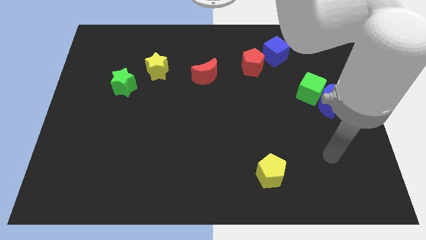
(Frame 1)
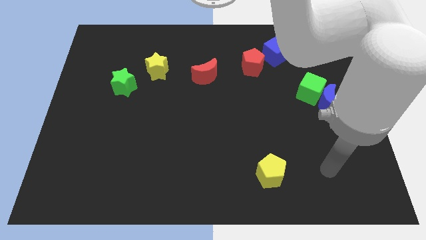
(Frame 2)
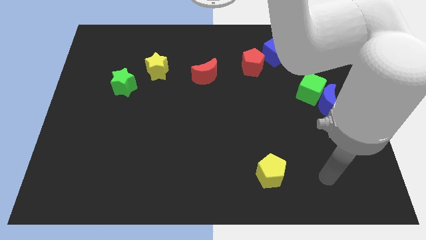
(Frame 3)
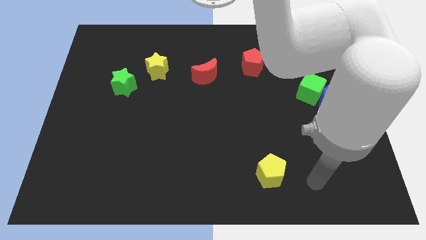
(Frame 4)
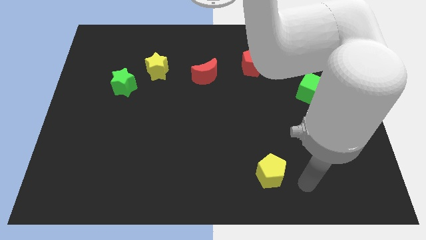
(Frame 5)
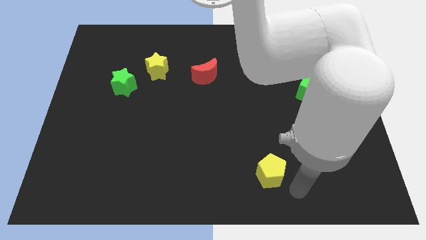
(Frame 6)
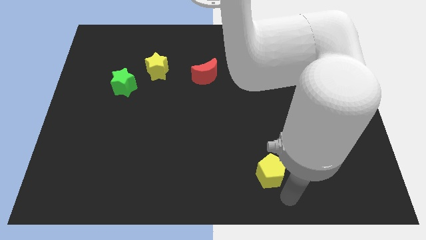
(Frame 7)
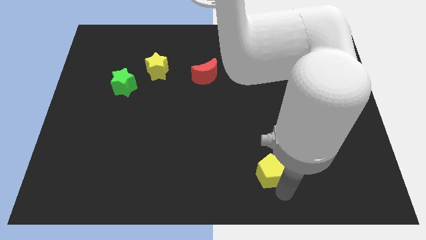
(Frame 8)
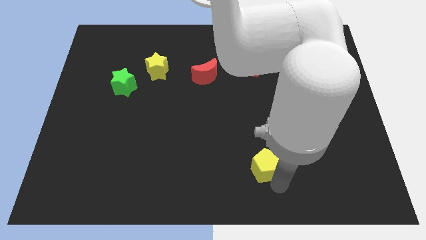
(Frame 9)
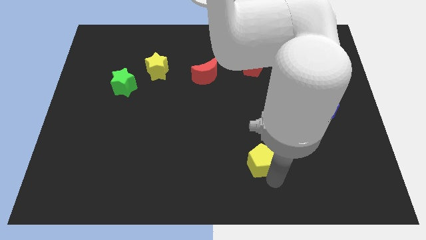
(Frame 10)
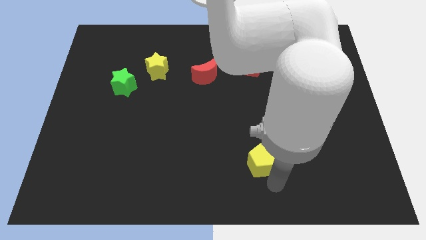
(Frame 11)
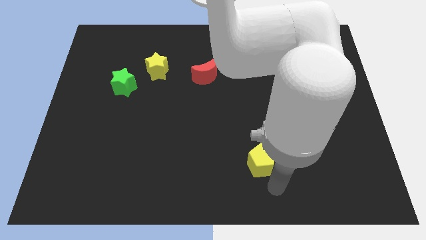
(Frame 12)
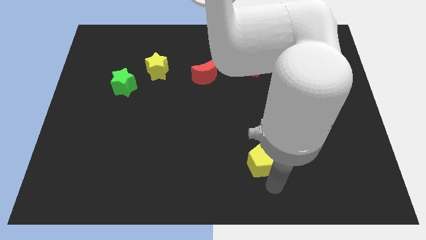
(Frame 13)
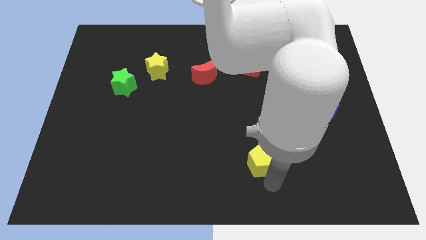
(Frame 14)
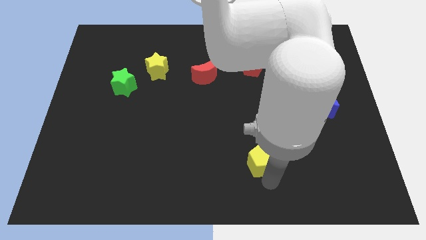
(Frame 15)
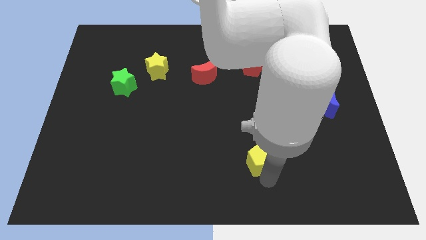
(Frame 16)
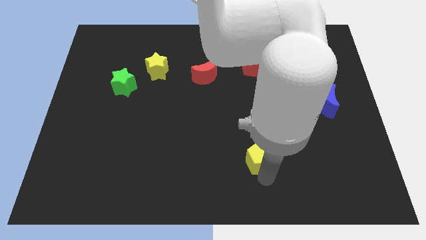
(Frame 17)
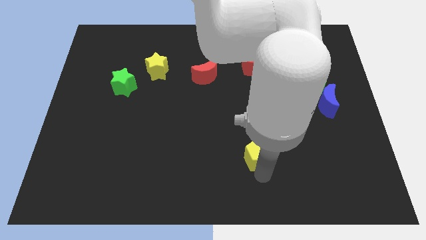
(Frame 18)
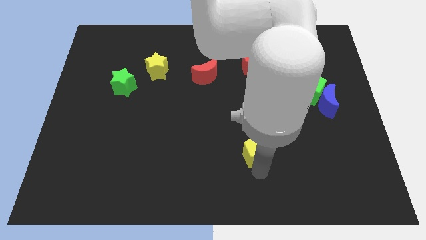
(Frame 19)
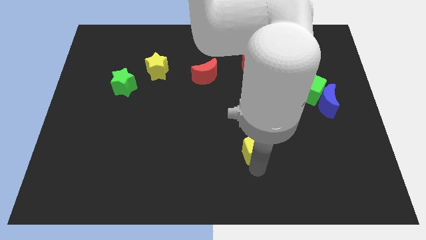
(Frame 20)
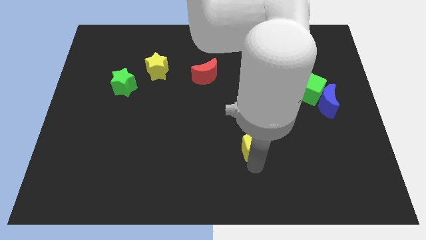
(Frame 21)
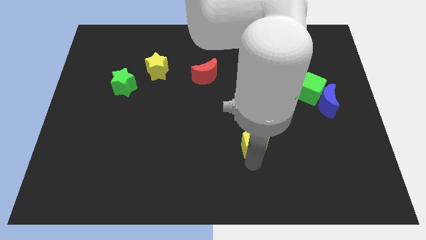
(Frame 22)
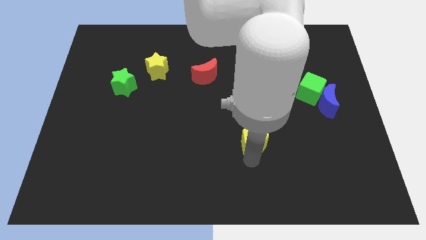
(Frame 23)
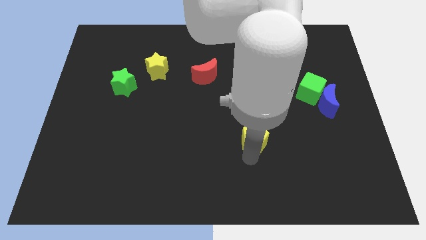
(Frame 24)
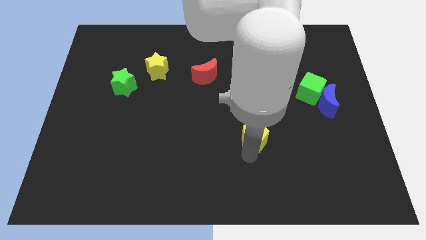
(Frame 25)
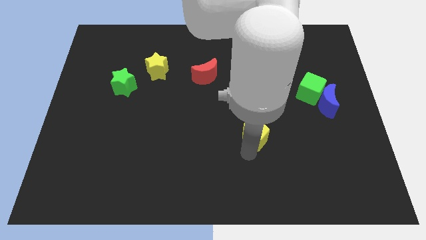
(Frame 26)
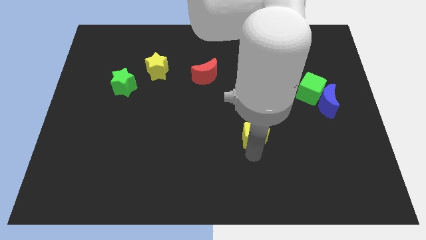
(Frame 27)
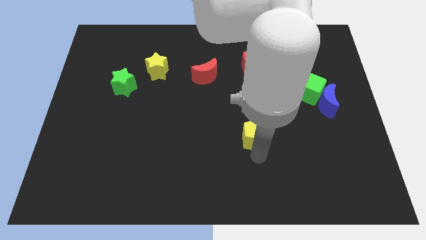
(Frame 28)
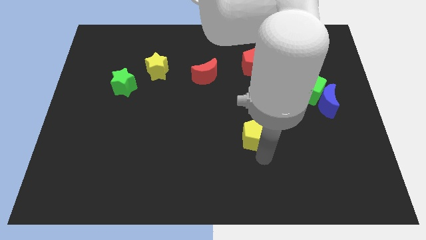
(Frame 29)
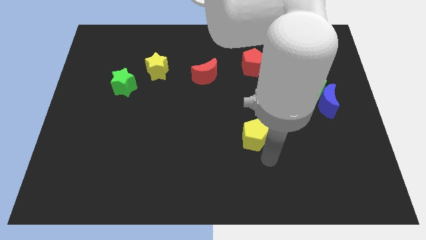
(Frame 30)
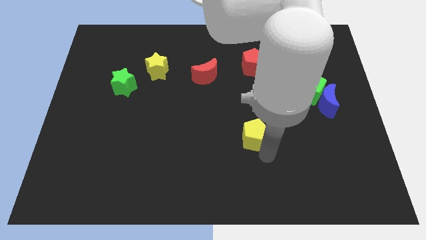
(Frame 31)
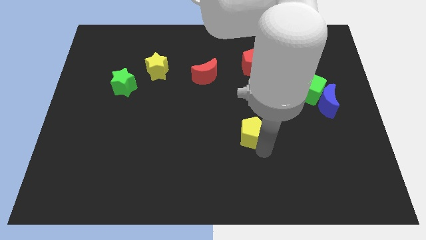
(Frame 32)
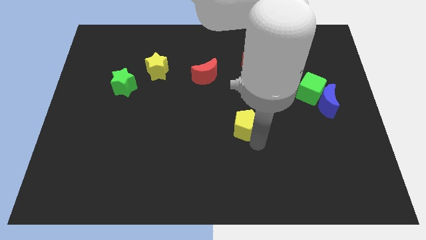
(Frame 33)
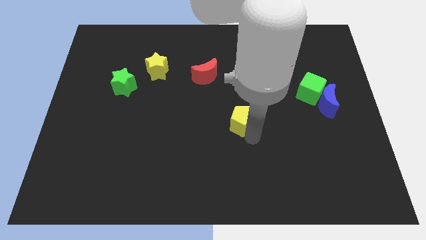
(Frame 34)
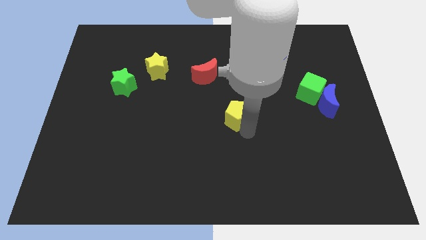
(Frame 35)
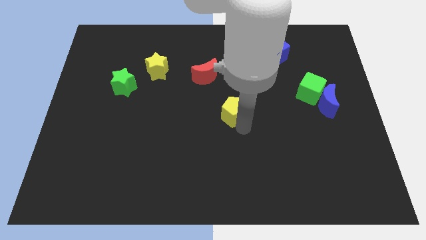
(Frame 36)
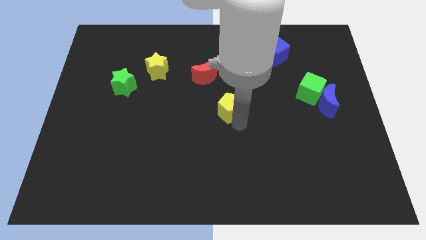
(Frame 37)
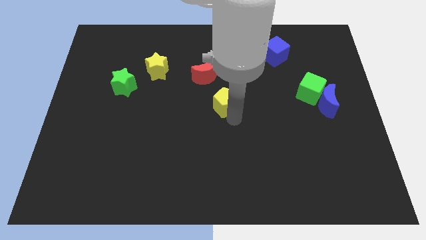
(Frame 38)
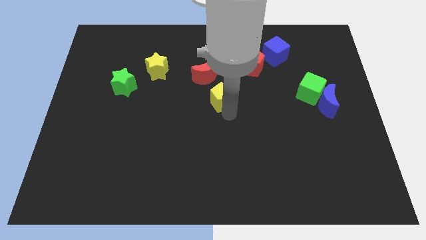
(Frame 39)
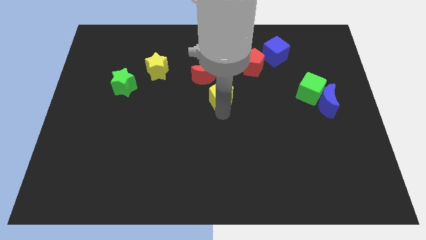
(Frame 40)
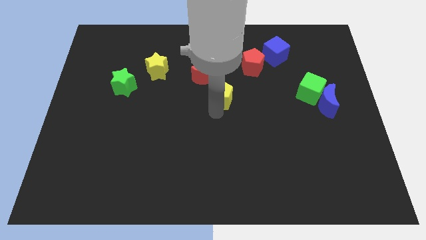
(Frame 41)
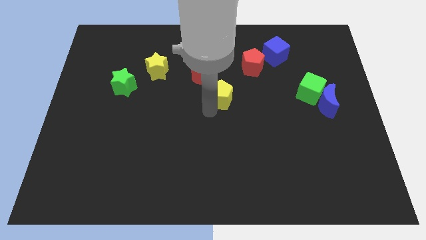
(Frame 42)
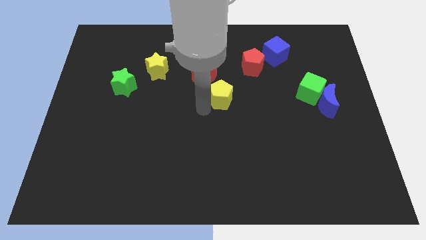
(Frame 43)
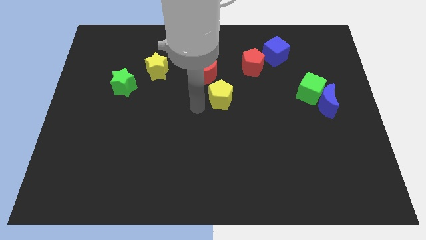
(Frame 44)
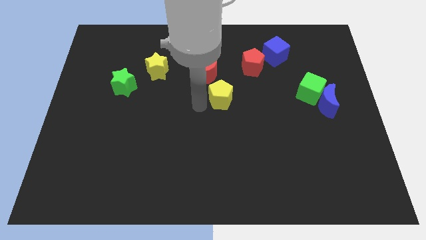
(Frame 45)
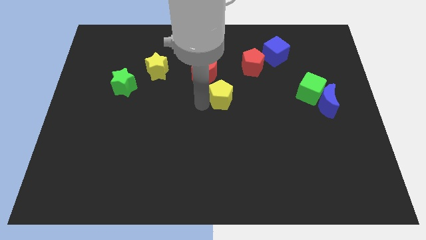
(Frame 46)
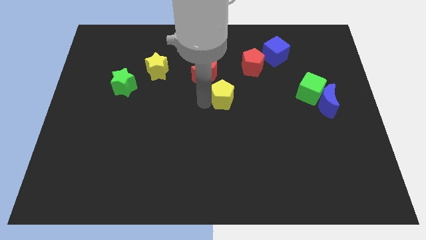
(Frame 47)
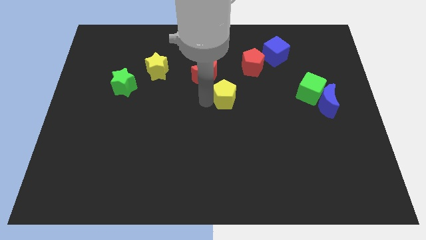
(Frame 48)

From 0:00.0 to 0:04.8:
put the yellow pentagon to the bottom left side of the red pentagon

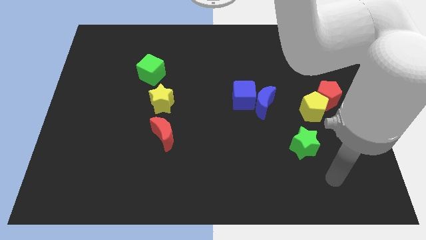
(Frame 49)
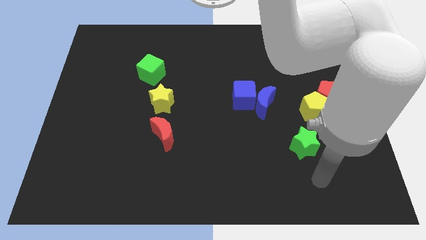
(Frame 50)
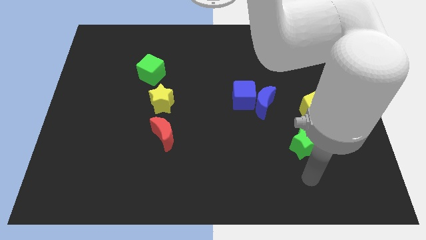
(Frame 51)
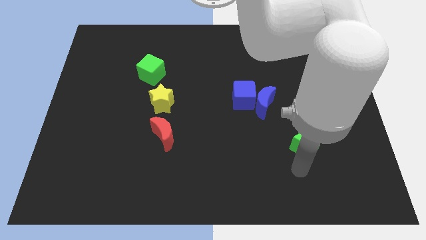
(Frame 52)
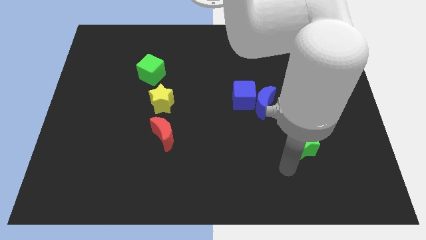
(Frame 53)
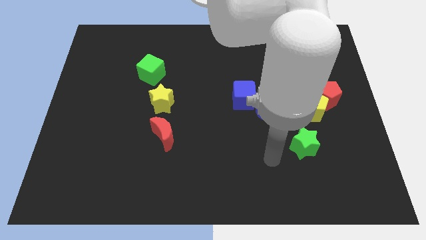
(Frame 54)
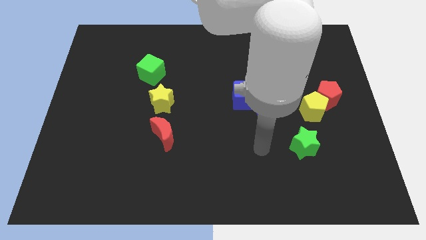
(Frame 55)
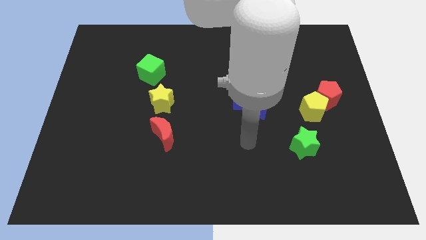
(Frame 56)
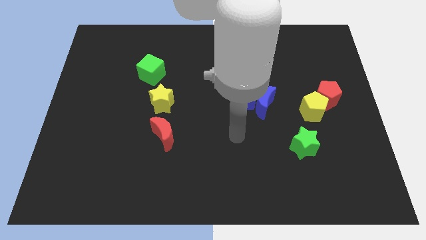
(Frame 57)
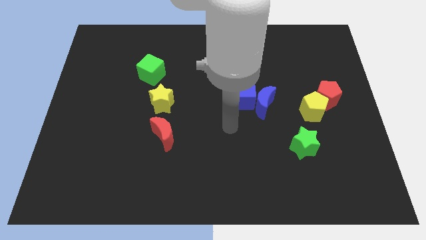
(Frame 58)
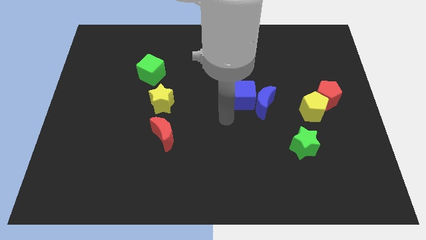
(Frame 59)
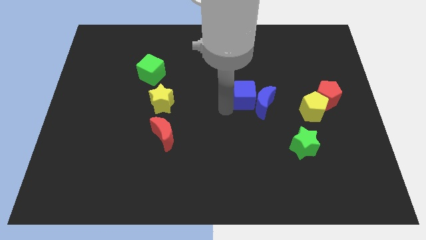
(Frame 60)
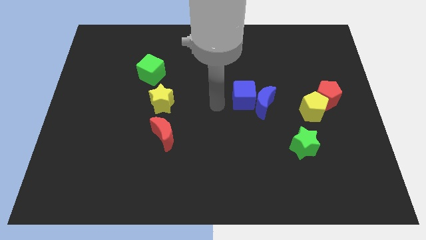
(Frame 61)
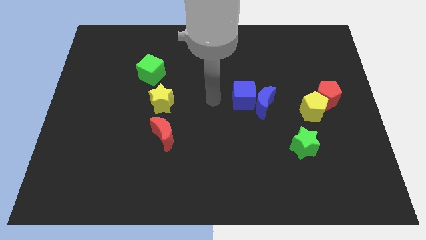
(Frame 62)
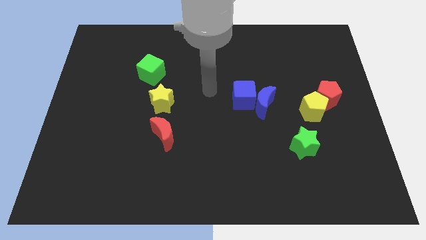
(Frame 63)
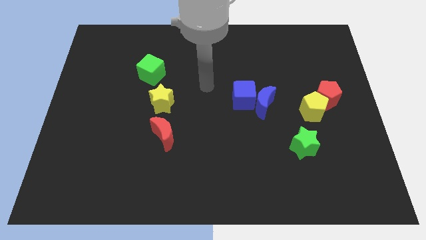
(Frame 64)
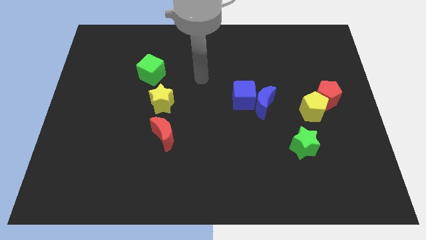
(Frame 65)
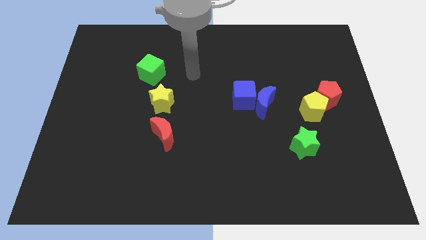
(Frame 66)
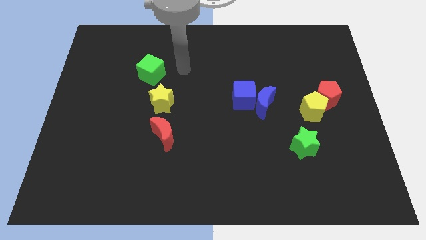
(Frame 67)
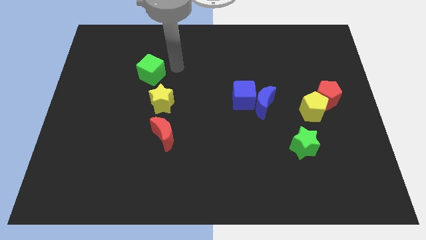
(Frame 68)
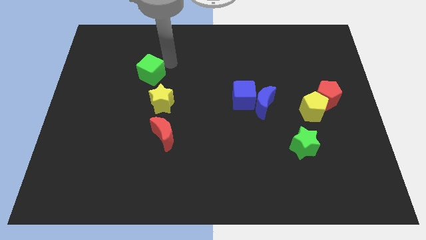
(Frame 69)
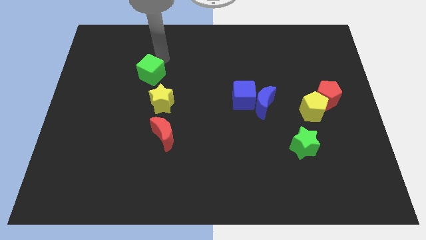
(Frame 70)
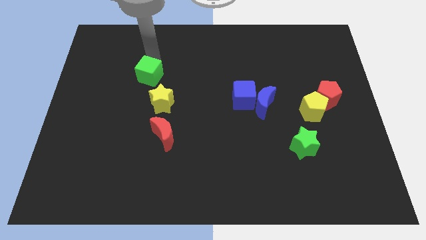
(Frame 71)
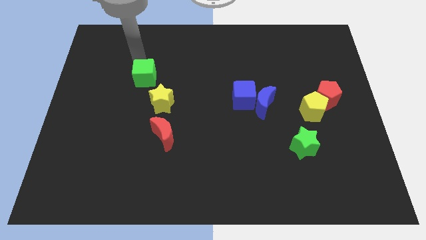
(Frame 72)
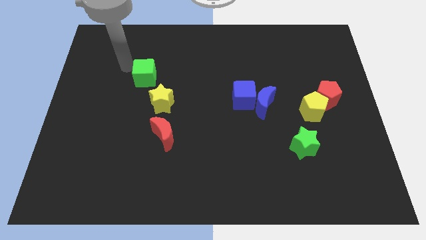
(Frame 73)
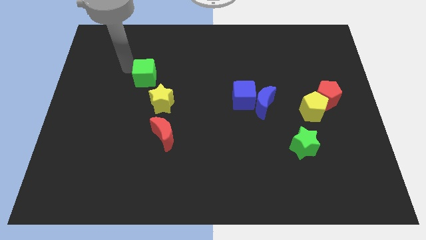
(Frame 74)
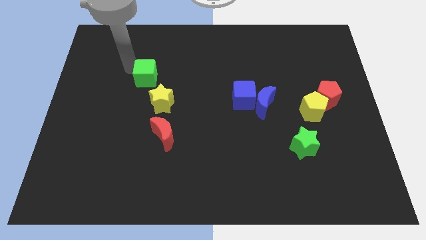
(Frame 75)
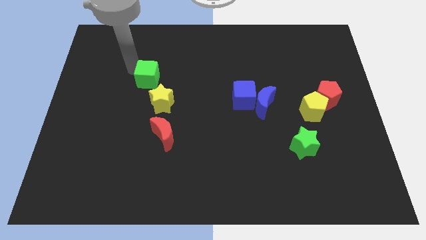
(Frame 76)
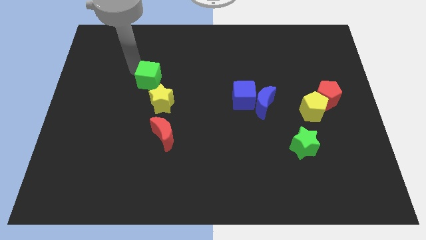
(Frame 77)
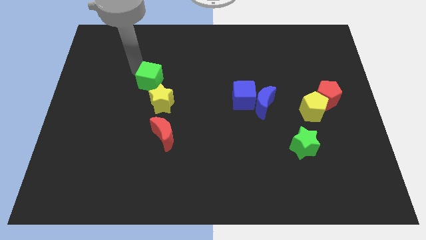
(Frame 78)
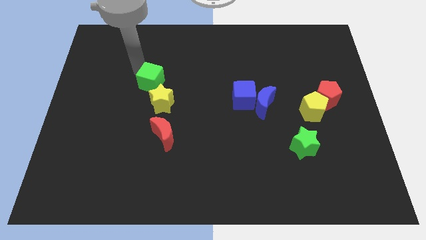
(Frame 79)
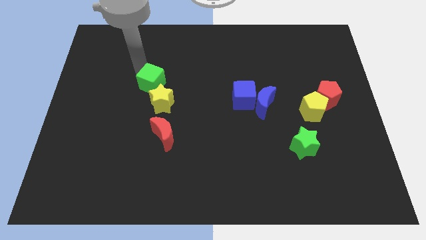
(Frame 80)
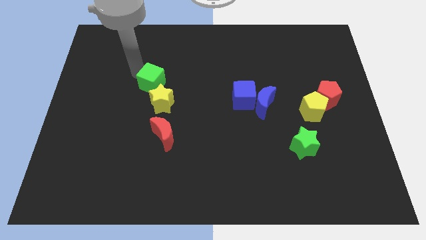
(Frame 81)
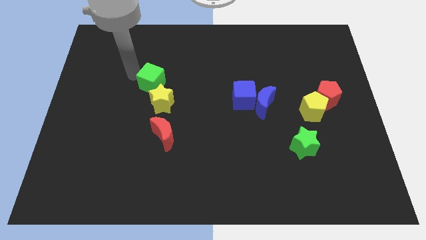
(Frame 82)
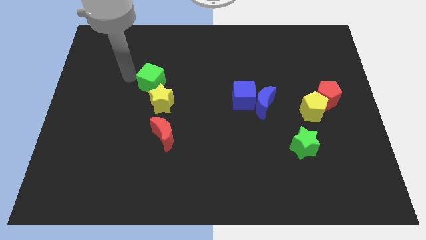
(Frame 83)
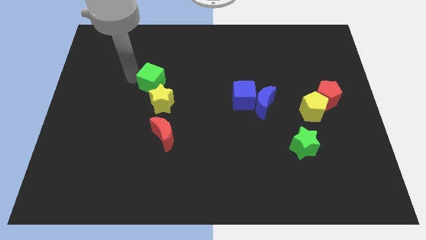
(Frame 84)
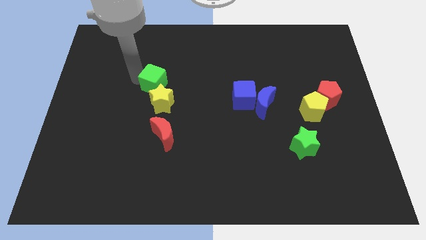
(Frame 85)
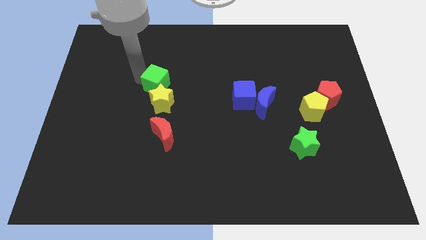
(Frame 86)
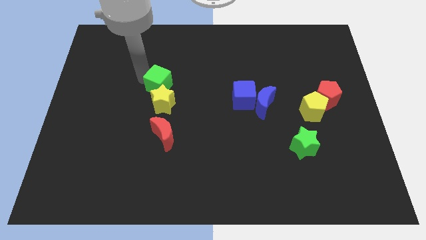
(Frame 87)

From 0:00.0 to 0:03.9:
push the green cube to the top of the red moon
